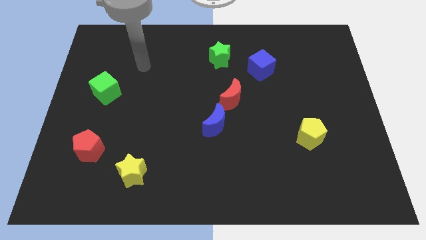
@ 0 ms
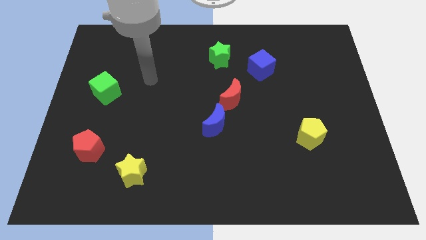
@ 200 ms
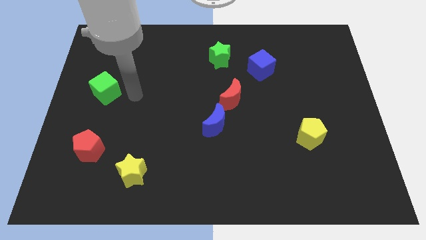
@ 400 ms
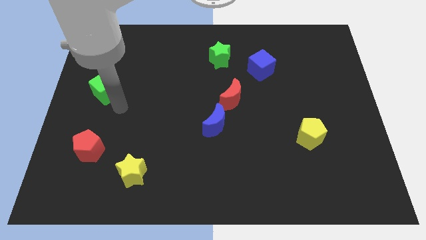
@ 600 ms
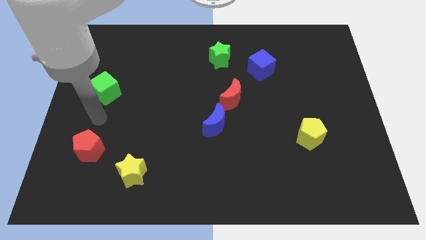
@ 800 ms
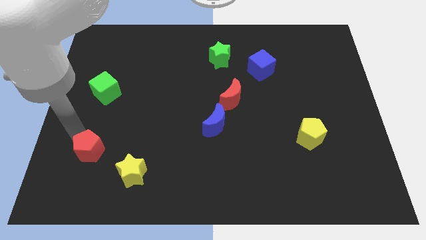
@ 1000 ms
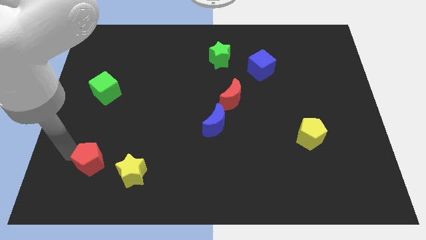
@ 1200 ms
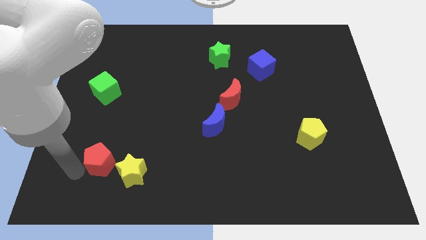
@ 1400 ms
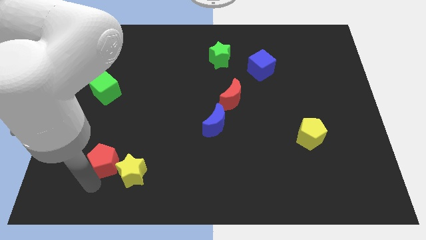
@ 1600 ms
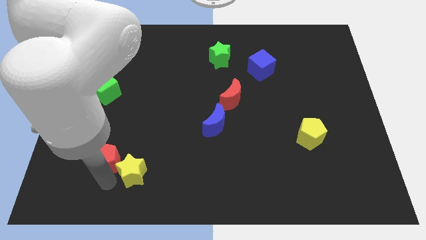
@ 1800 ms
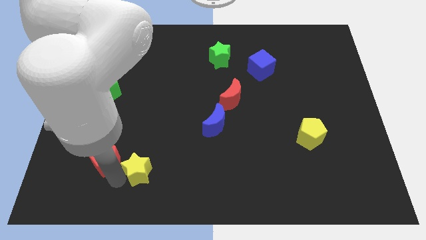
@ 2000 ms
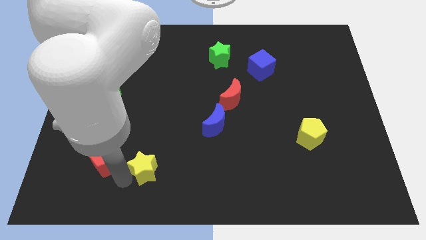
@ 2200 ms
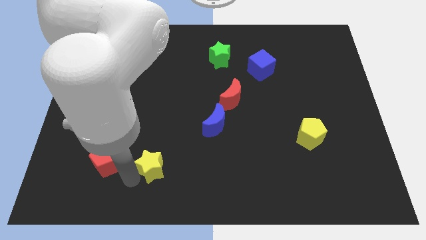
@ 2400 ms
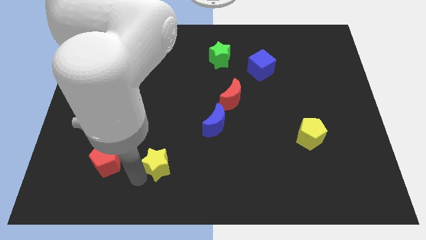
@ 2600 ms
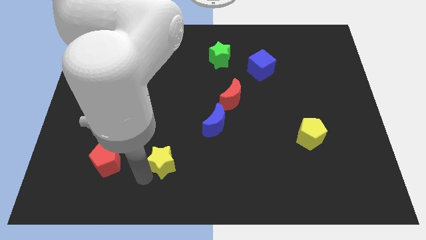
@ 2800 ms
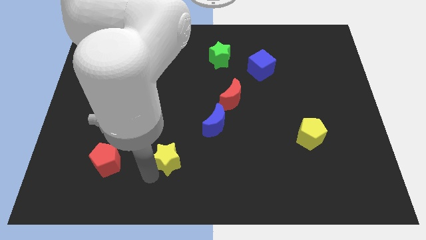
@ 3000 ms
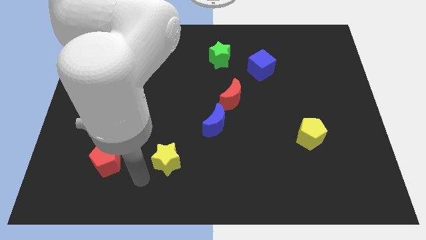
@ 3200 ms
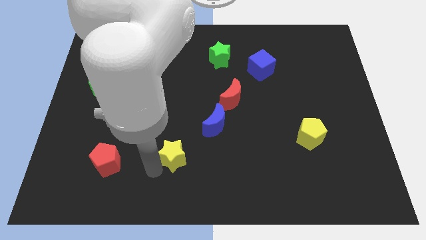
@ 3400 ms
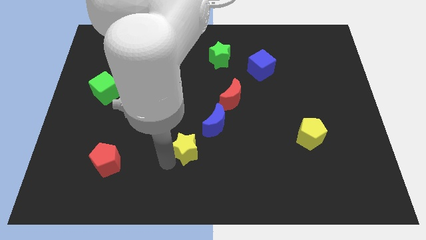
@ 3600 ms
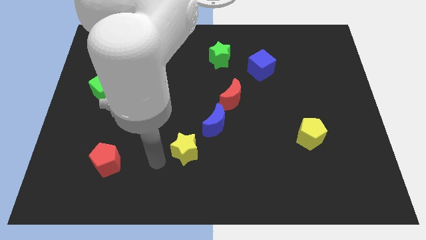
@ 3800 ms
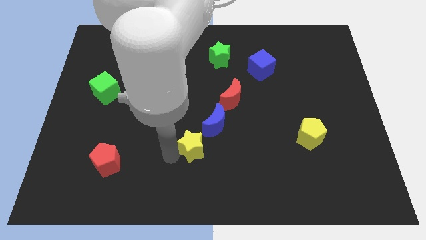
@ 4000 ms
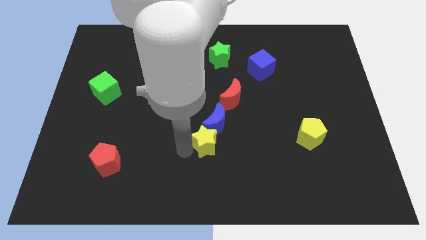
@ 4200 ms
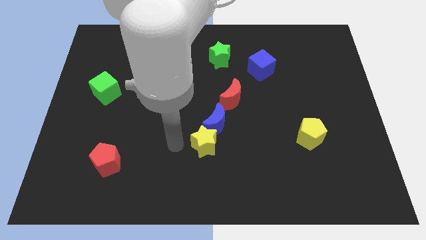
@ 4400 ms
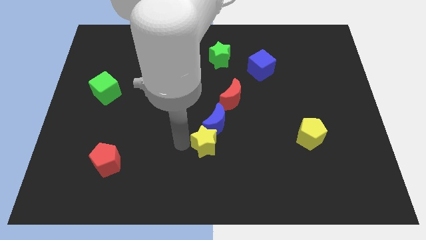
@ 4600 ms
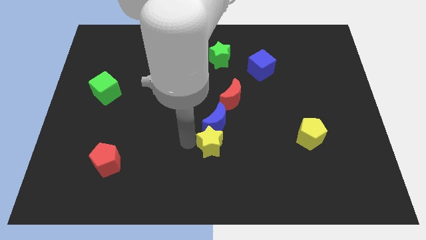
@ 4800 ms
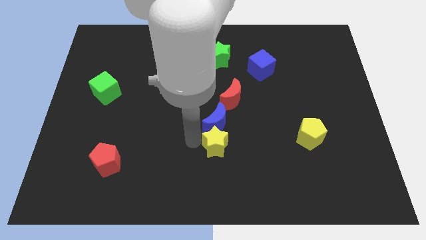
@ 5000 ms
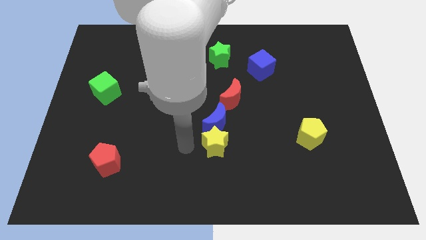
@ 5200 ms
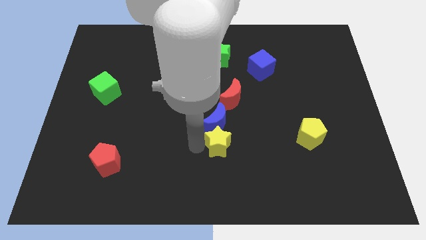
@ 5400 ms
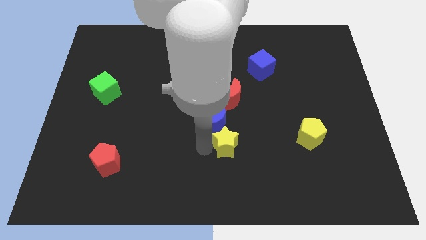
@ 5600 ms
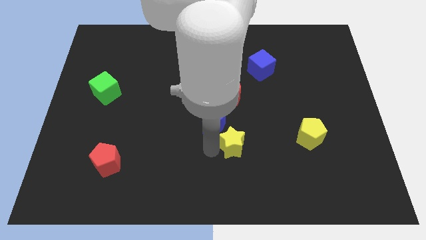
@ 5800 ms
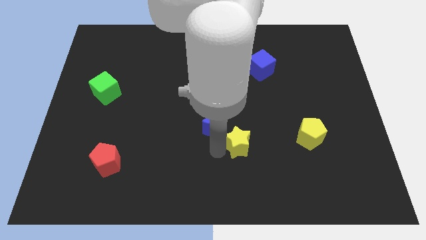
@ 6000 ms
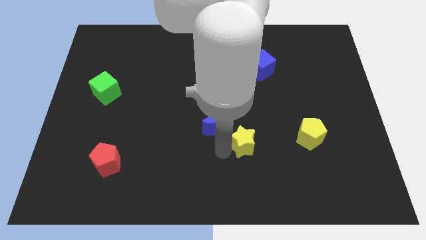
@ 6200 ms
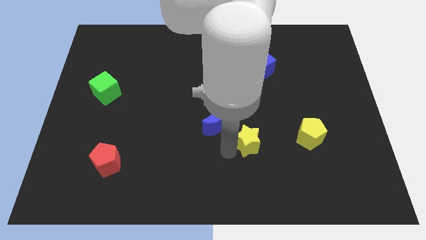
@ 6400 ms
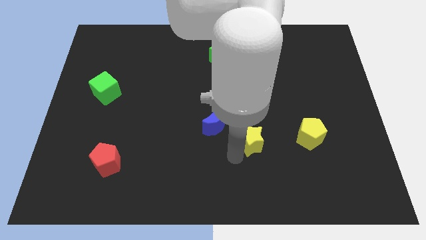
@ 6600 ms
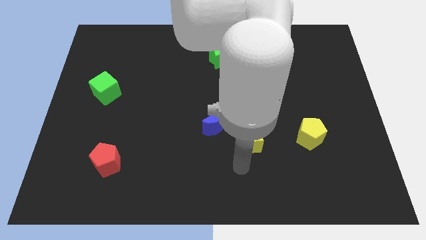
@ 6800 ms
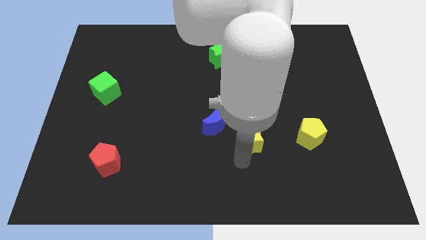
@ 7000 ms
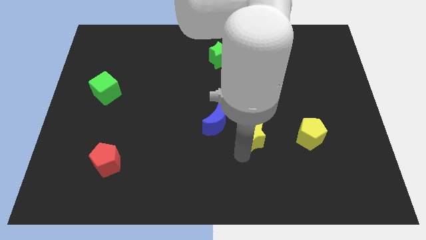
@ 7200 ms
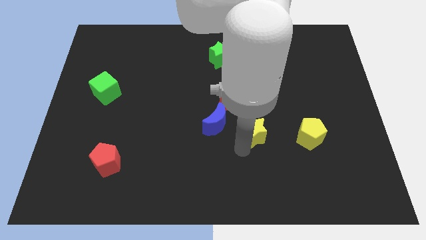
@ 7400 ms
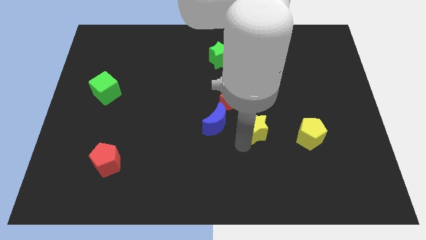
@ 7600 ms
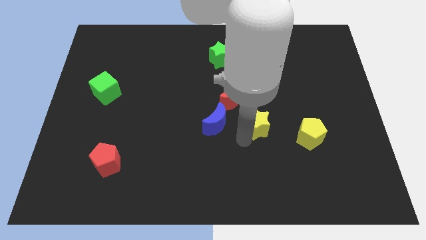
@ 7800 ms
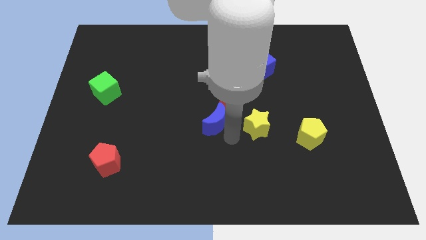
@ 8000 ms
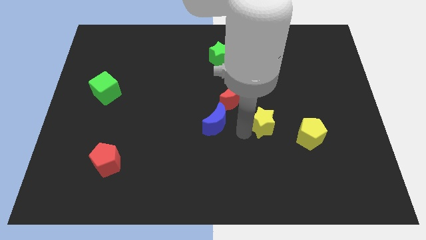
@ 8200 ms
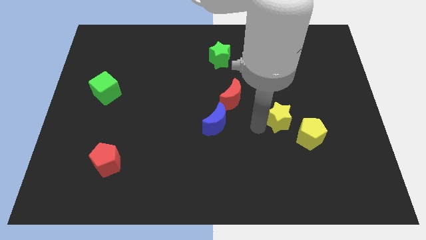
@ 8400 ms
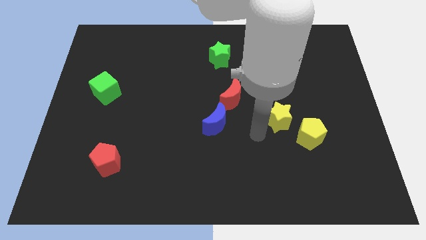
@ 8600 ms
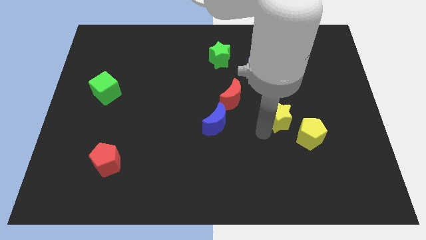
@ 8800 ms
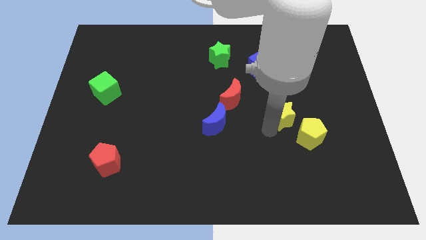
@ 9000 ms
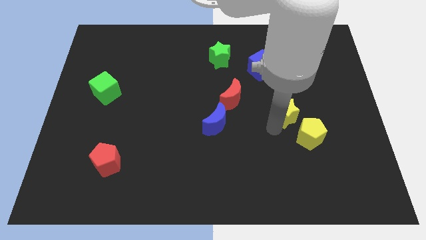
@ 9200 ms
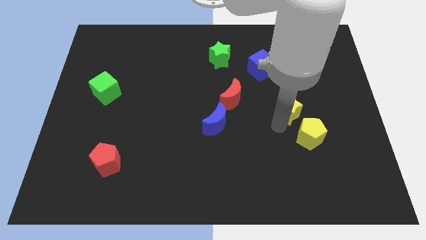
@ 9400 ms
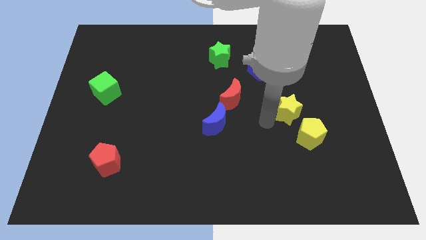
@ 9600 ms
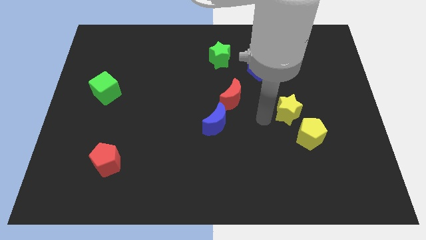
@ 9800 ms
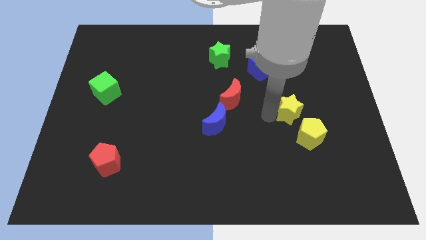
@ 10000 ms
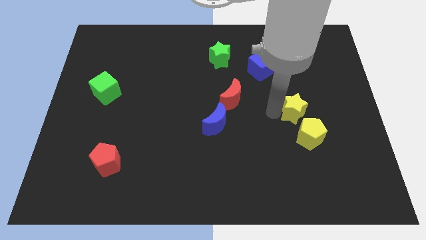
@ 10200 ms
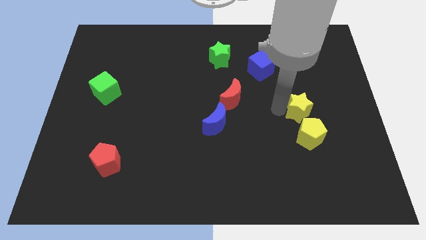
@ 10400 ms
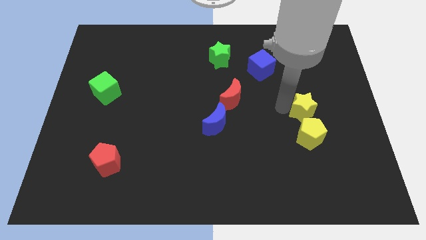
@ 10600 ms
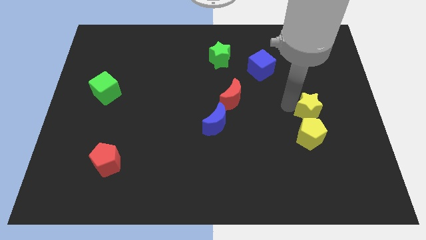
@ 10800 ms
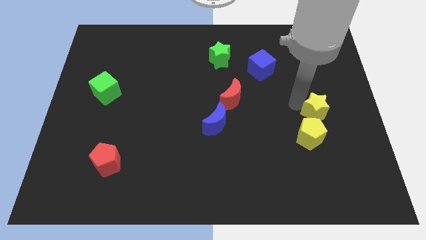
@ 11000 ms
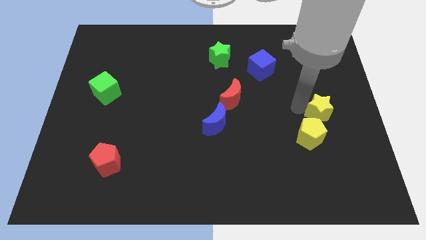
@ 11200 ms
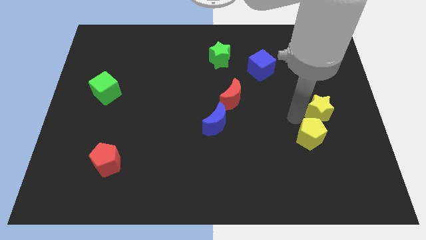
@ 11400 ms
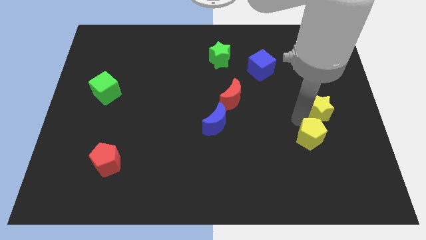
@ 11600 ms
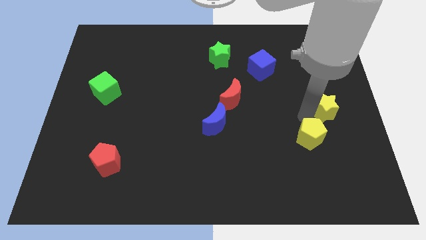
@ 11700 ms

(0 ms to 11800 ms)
push the yellow star to the right side
